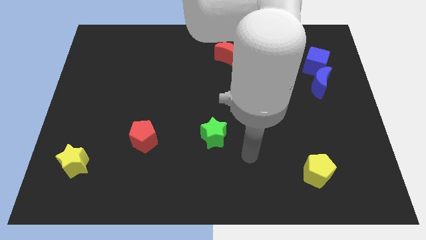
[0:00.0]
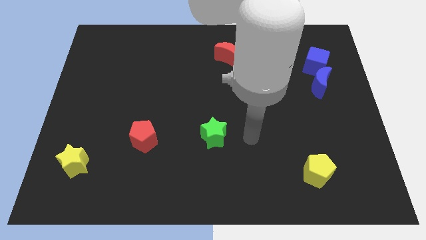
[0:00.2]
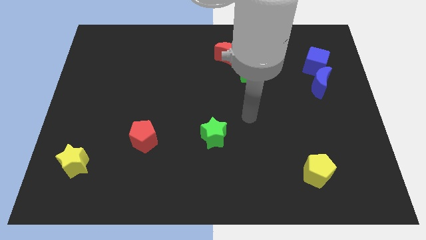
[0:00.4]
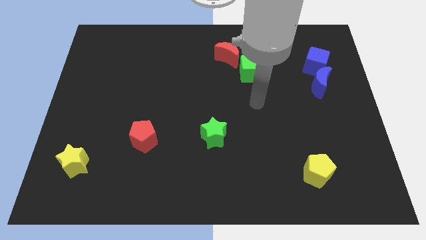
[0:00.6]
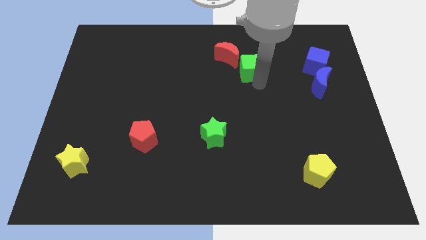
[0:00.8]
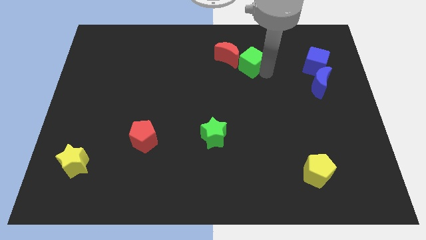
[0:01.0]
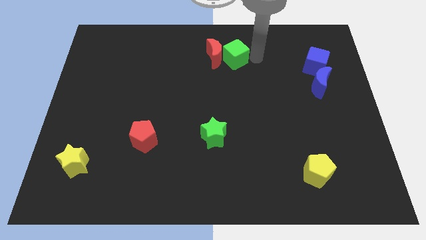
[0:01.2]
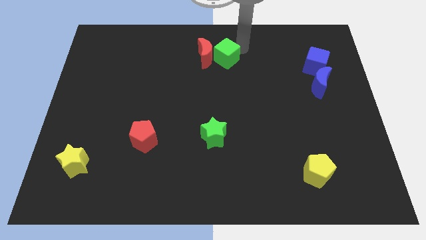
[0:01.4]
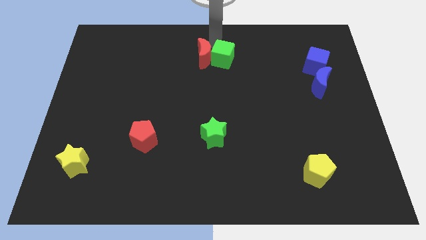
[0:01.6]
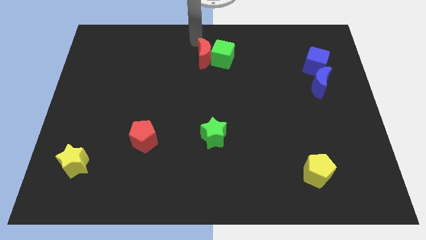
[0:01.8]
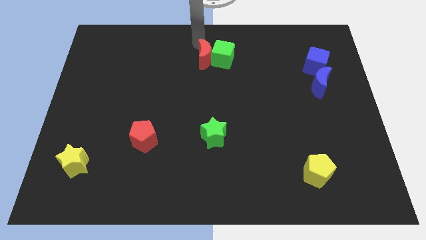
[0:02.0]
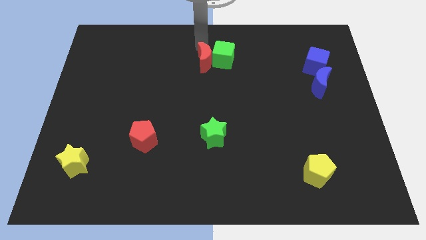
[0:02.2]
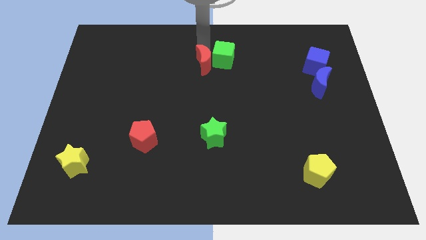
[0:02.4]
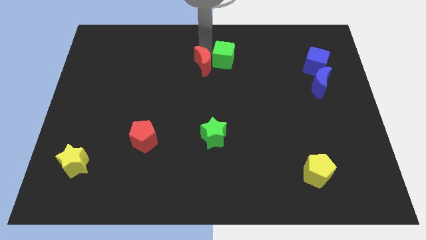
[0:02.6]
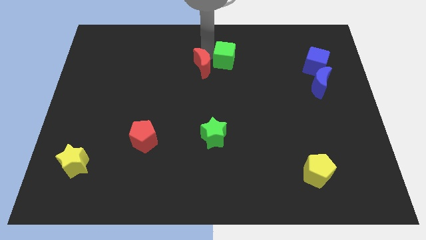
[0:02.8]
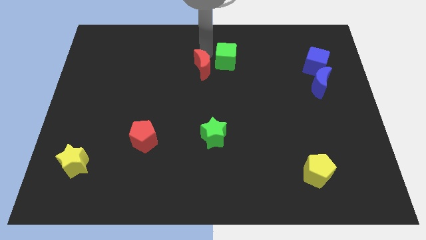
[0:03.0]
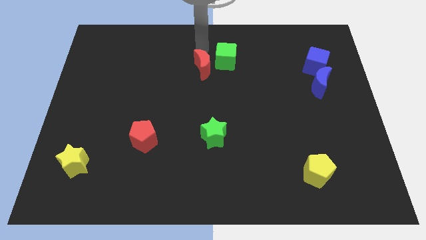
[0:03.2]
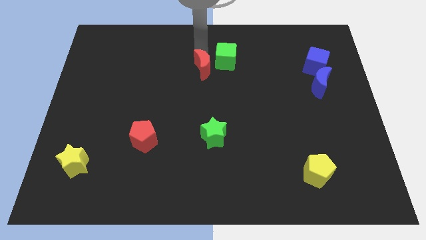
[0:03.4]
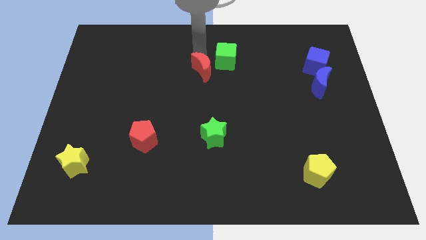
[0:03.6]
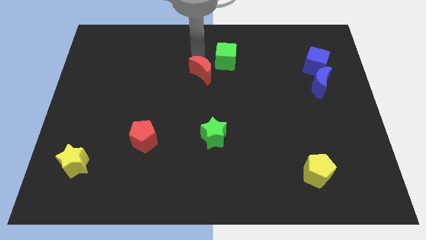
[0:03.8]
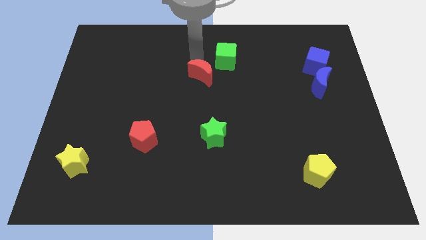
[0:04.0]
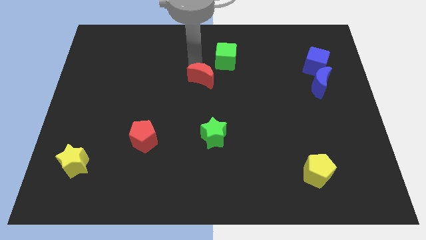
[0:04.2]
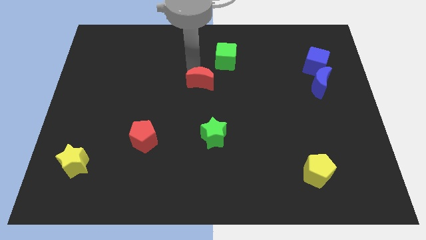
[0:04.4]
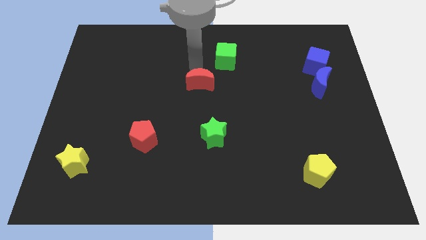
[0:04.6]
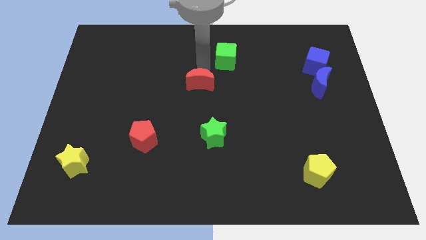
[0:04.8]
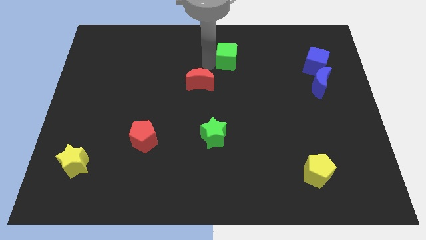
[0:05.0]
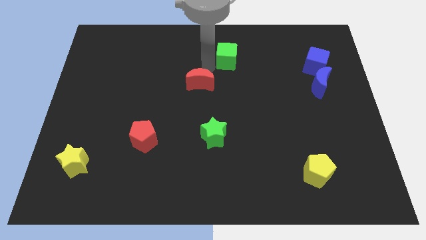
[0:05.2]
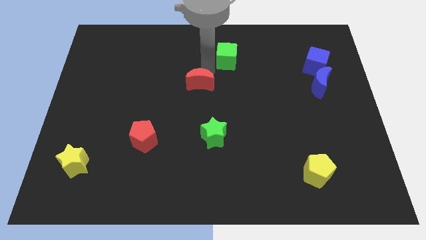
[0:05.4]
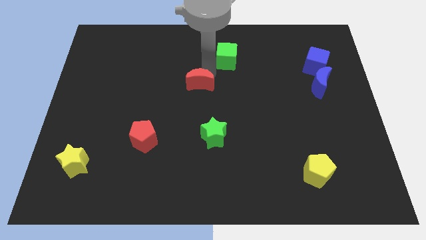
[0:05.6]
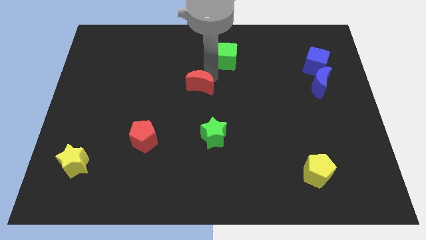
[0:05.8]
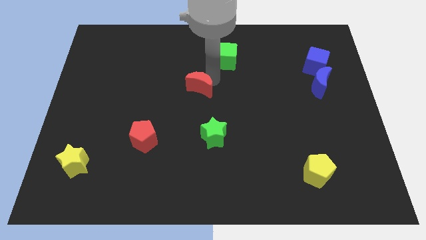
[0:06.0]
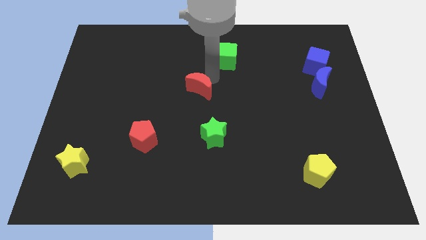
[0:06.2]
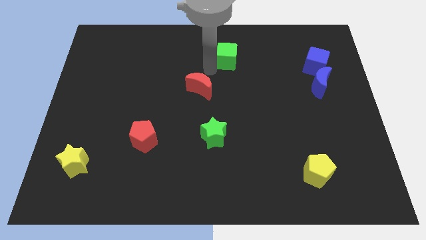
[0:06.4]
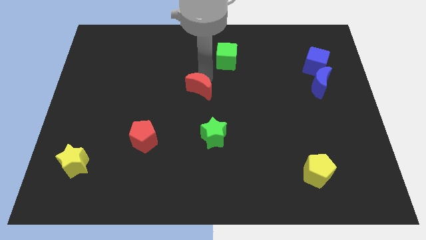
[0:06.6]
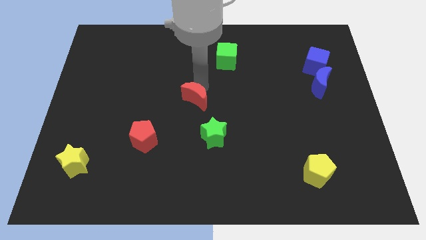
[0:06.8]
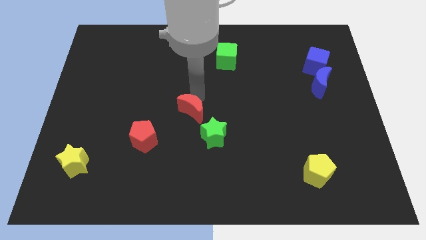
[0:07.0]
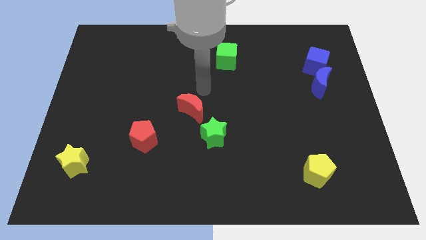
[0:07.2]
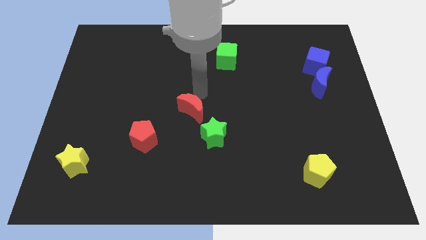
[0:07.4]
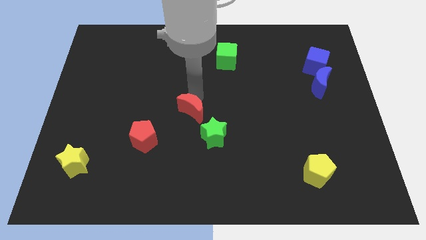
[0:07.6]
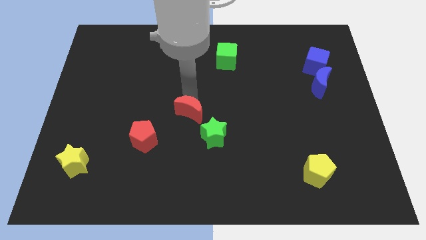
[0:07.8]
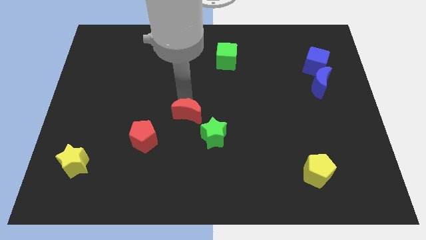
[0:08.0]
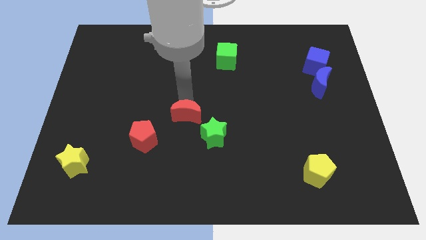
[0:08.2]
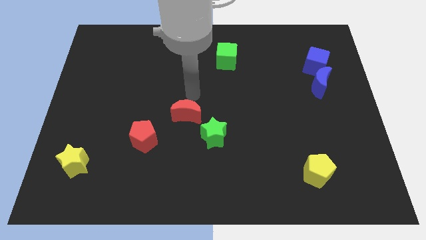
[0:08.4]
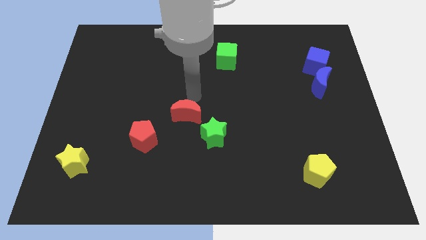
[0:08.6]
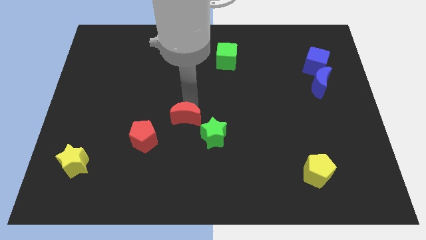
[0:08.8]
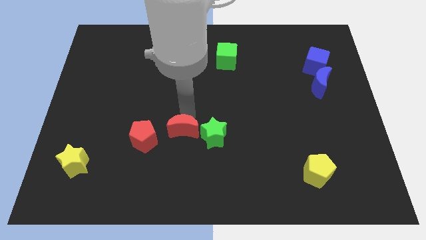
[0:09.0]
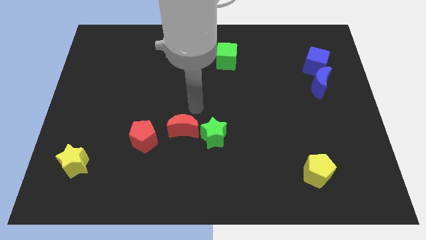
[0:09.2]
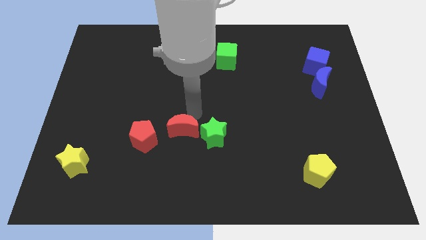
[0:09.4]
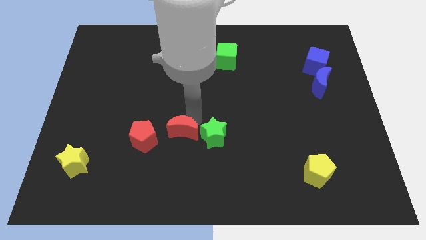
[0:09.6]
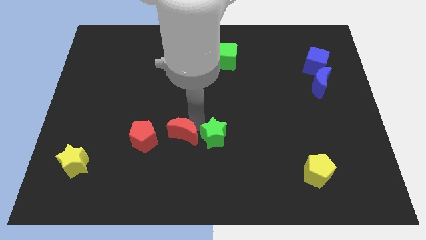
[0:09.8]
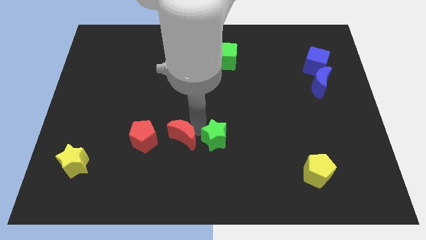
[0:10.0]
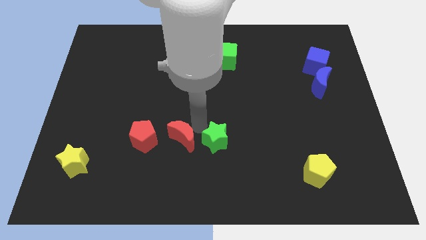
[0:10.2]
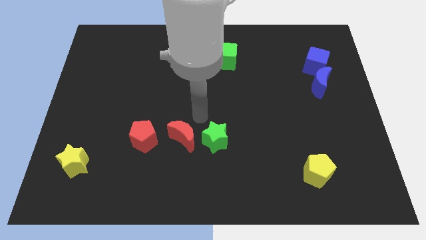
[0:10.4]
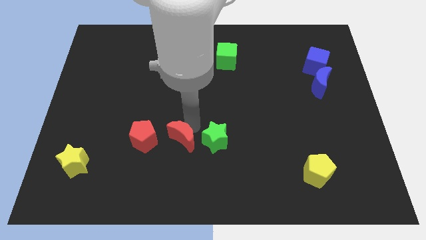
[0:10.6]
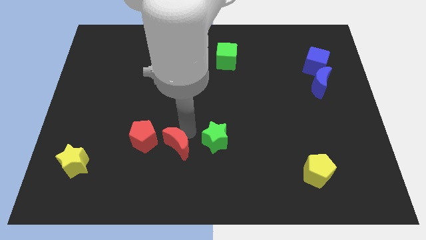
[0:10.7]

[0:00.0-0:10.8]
move the red moon to the bottom right side of the red pentagon

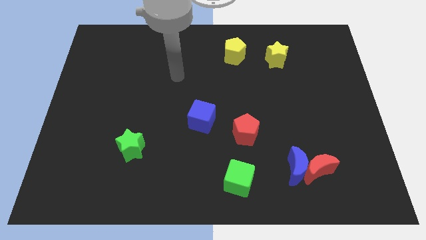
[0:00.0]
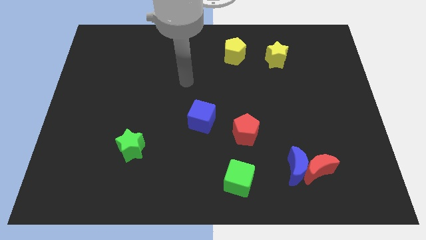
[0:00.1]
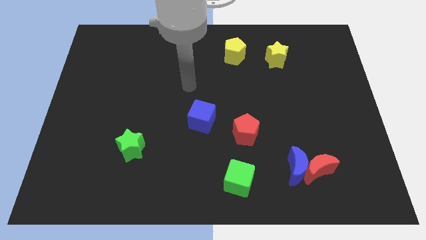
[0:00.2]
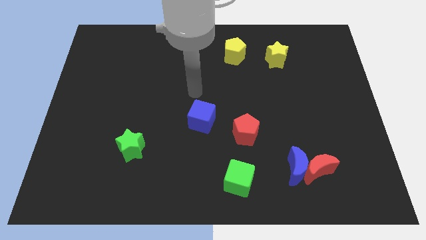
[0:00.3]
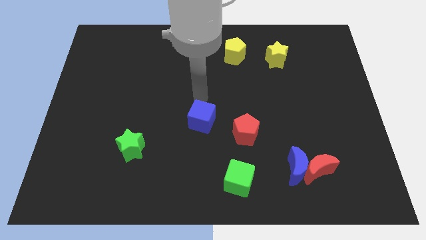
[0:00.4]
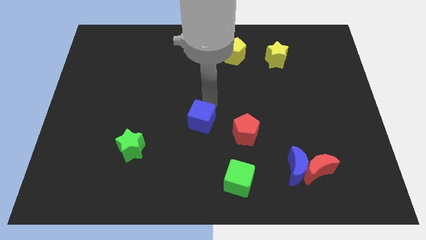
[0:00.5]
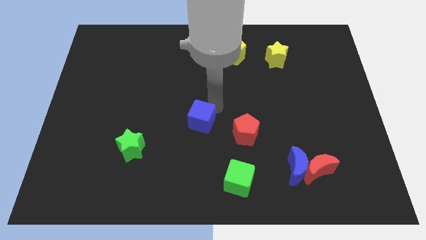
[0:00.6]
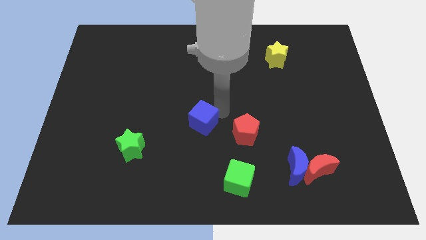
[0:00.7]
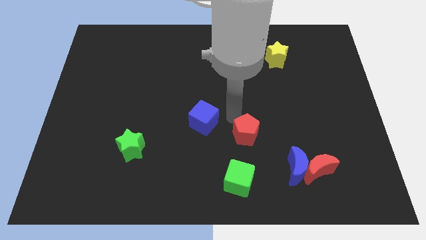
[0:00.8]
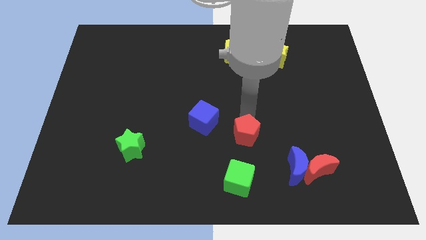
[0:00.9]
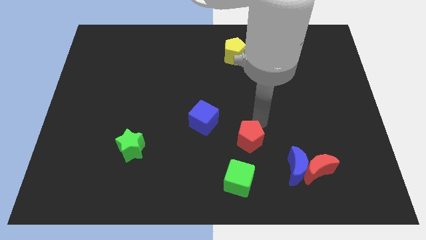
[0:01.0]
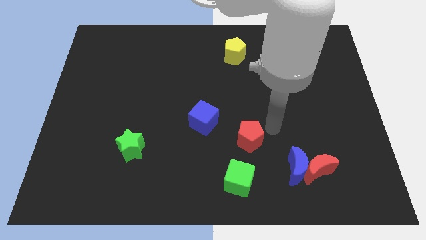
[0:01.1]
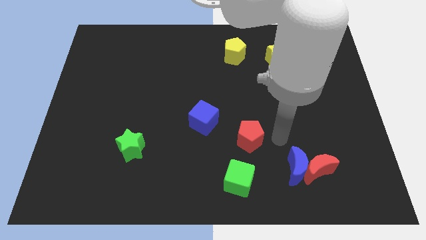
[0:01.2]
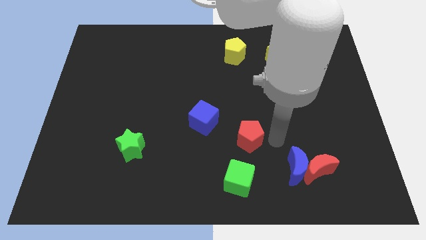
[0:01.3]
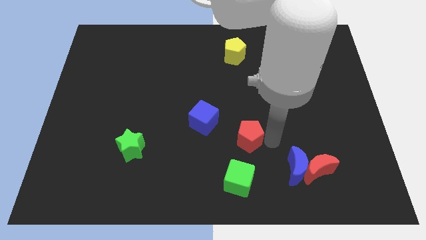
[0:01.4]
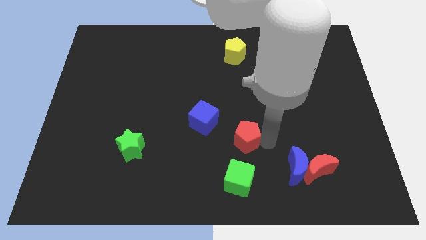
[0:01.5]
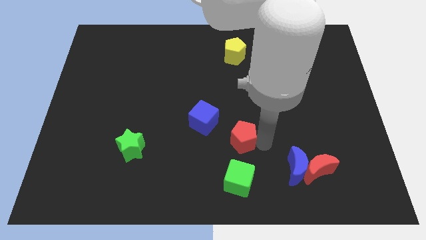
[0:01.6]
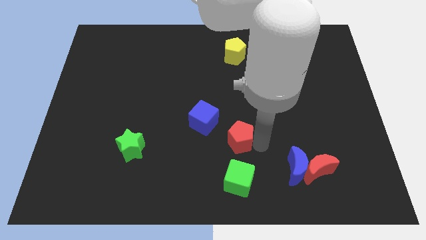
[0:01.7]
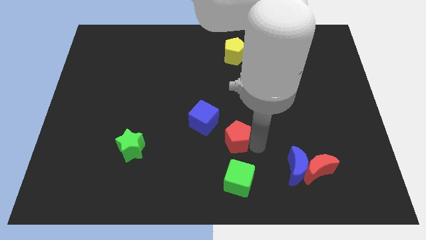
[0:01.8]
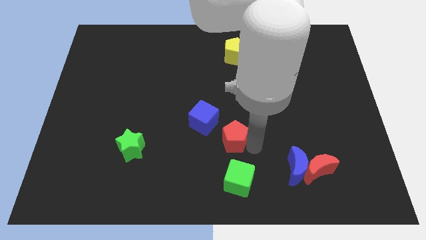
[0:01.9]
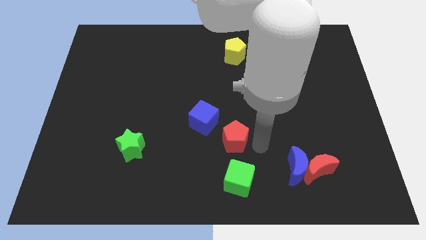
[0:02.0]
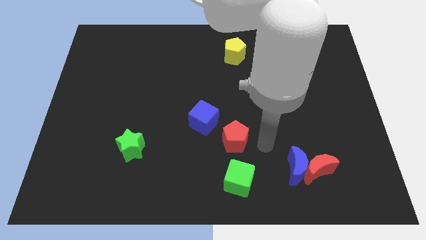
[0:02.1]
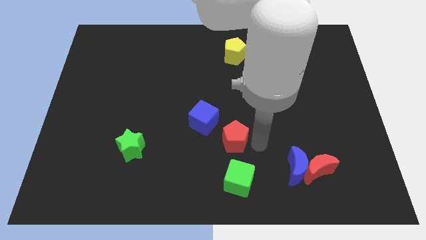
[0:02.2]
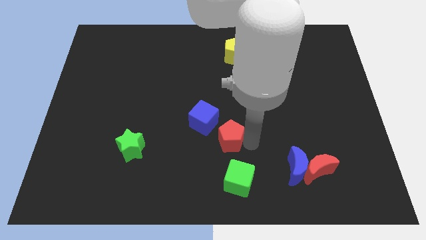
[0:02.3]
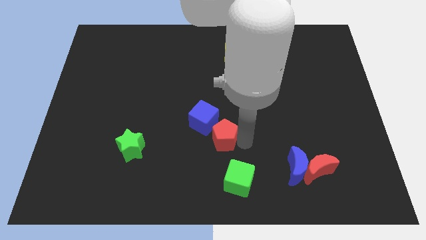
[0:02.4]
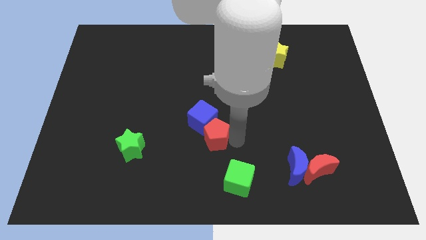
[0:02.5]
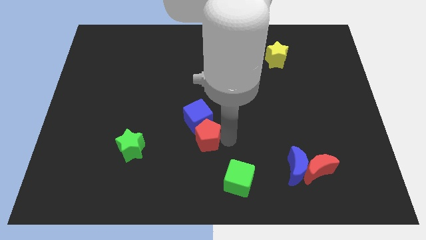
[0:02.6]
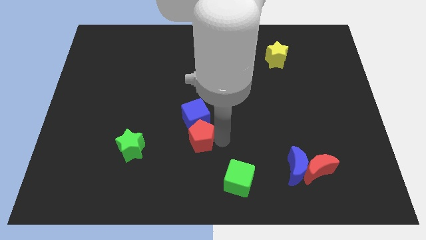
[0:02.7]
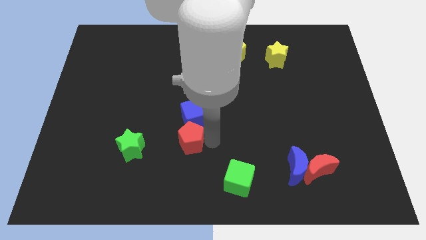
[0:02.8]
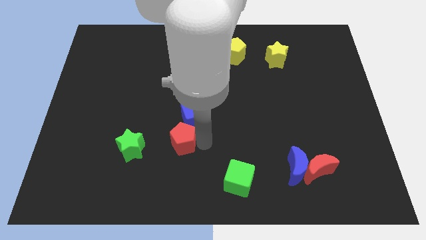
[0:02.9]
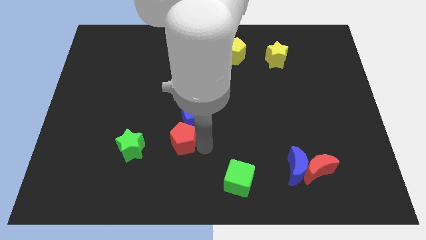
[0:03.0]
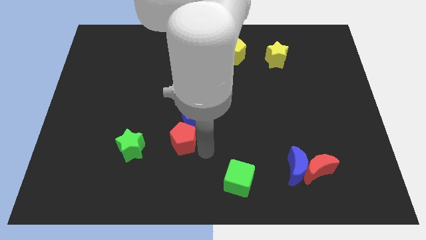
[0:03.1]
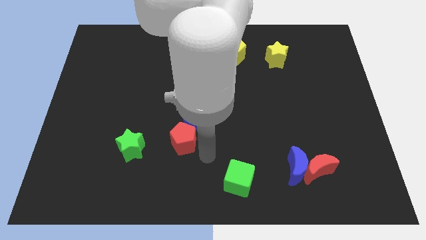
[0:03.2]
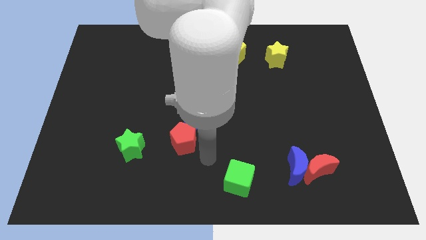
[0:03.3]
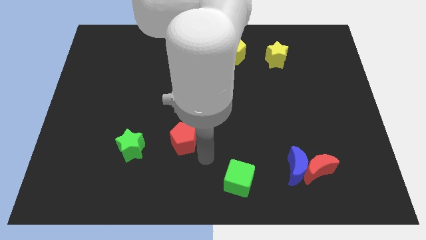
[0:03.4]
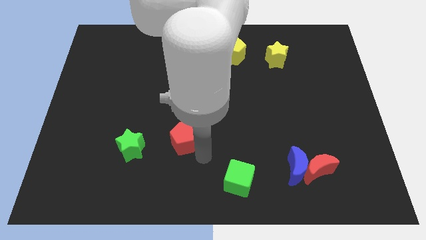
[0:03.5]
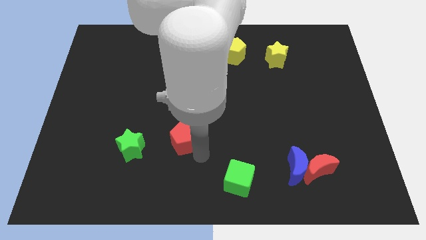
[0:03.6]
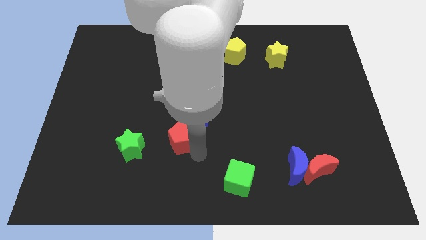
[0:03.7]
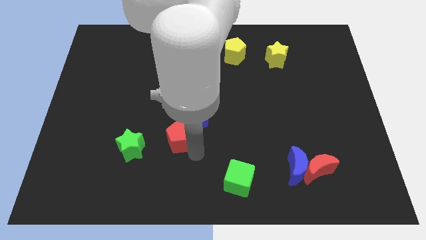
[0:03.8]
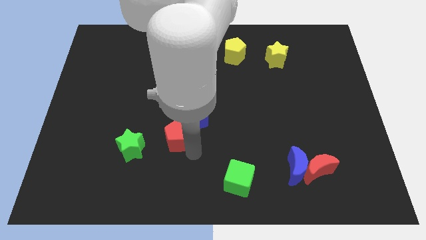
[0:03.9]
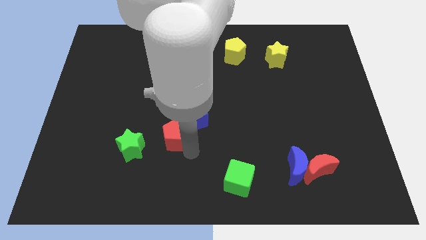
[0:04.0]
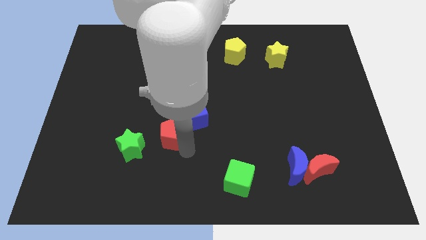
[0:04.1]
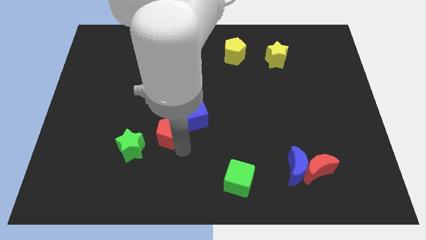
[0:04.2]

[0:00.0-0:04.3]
put the red pentagon left of the blue cube
